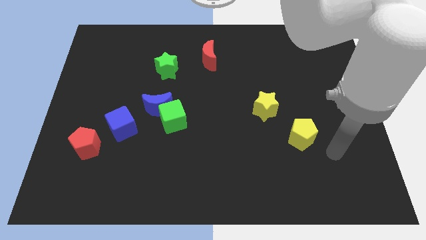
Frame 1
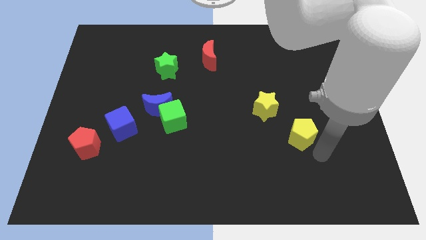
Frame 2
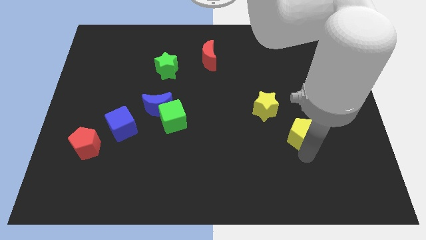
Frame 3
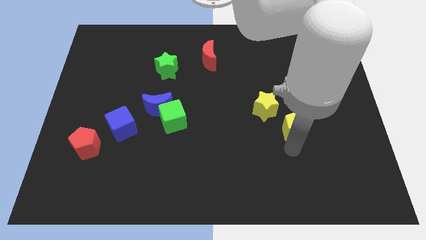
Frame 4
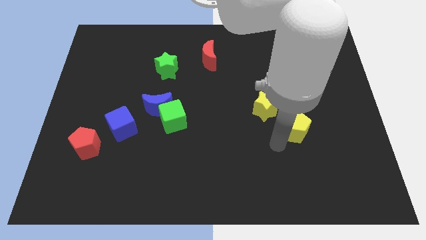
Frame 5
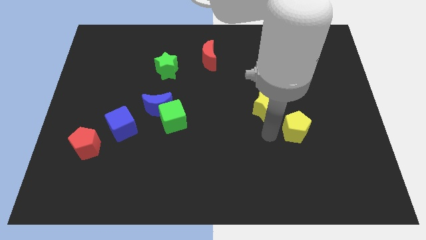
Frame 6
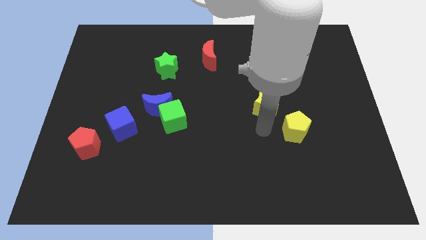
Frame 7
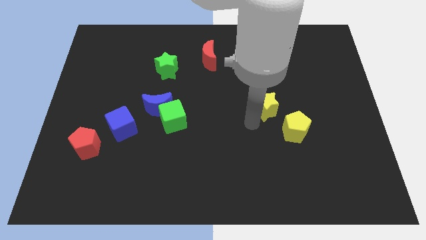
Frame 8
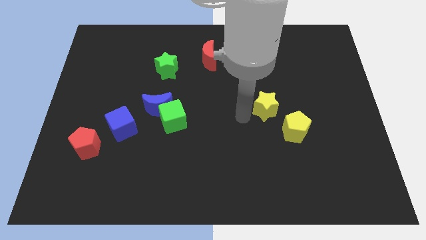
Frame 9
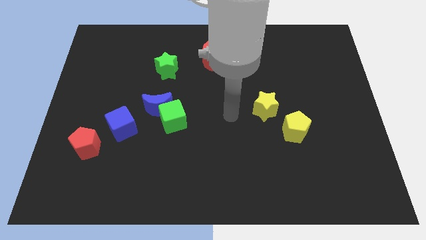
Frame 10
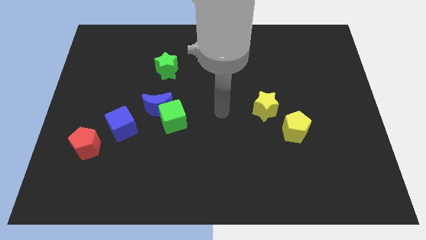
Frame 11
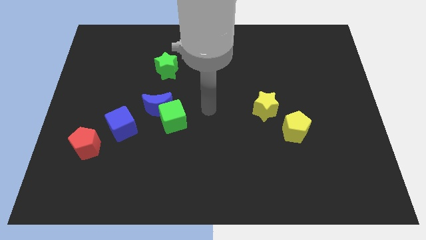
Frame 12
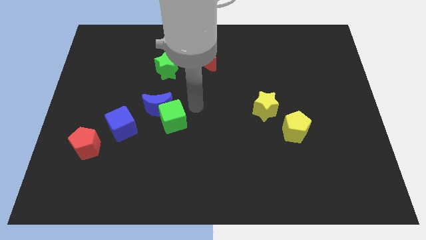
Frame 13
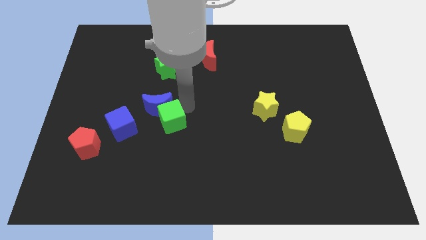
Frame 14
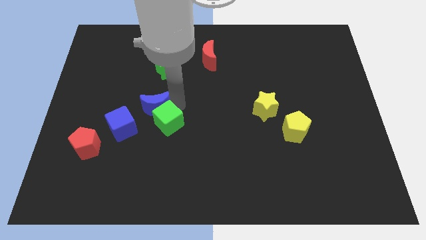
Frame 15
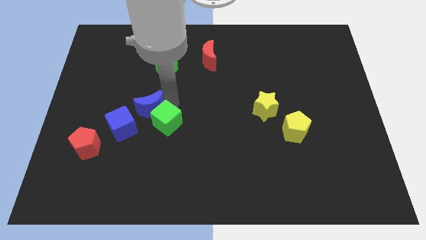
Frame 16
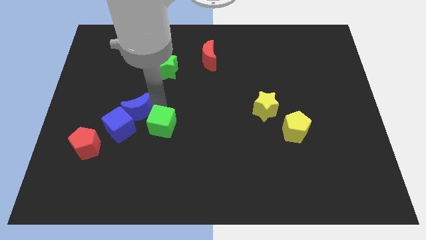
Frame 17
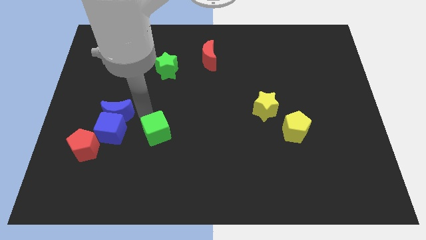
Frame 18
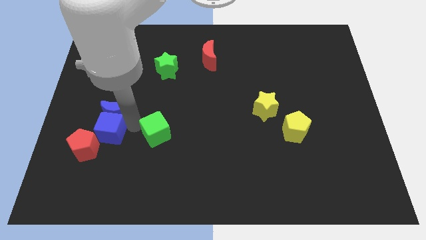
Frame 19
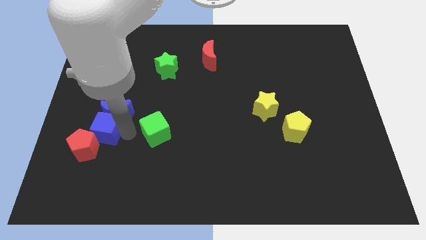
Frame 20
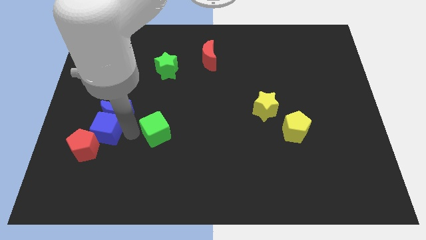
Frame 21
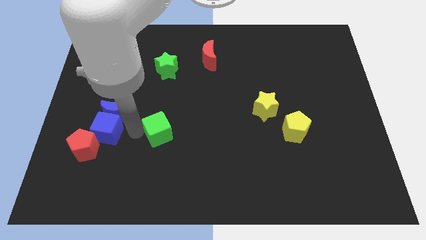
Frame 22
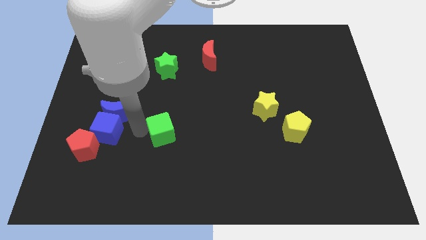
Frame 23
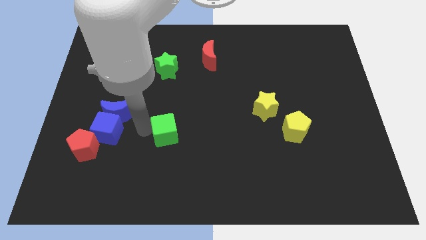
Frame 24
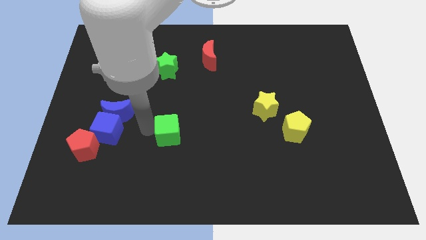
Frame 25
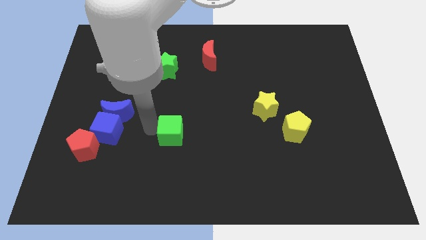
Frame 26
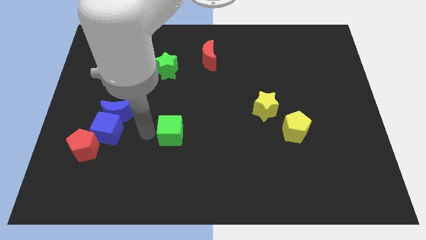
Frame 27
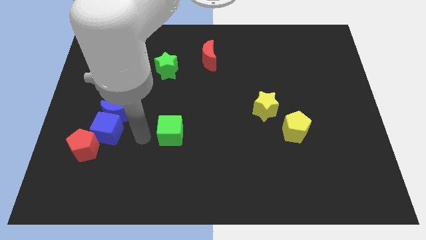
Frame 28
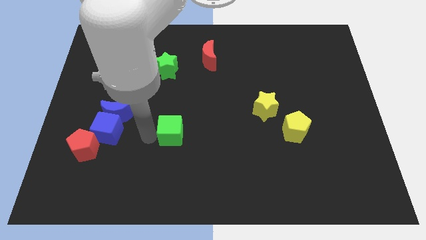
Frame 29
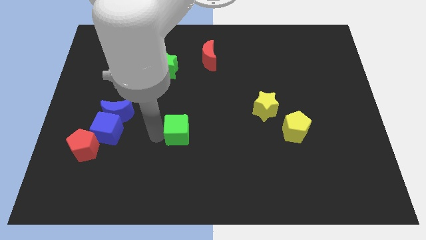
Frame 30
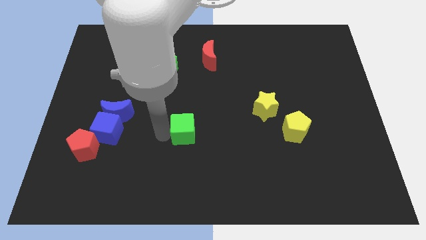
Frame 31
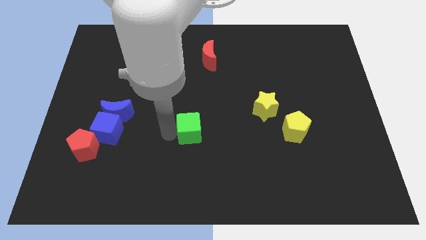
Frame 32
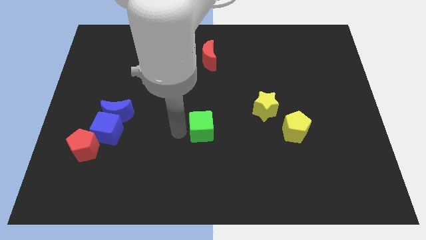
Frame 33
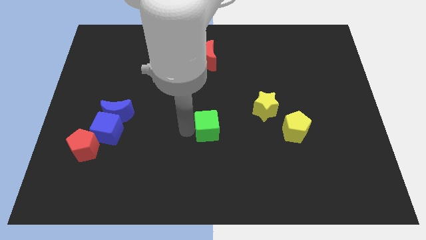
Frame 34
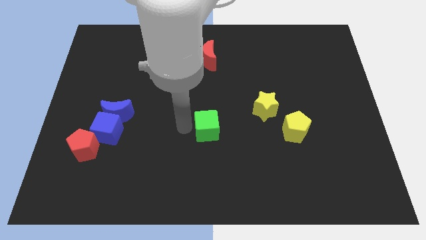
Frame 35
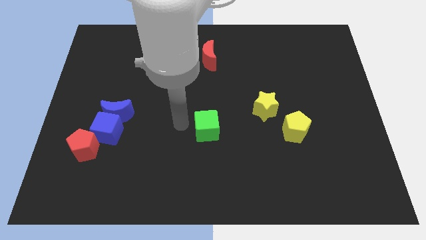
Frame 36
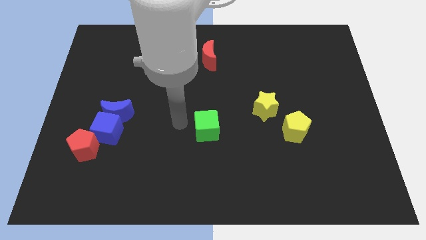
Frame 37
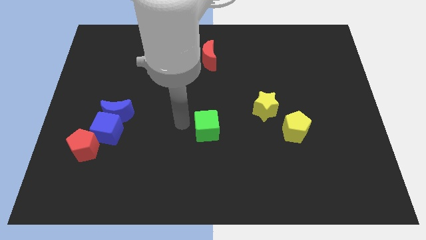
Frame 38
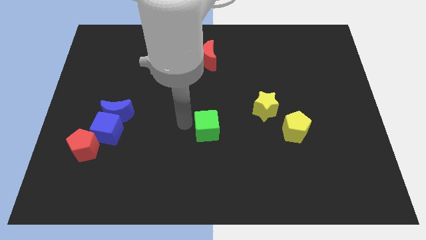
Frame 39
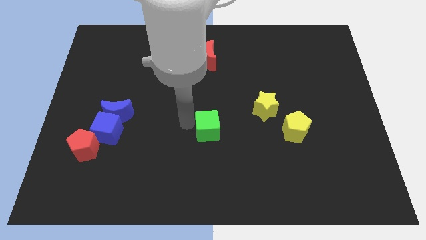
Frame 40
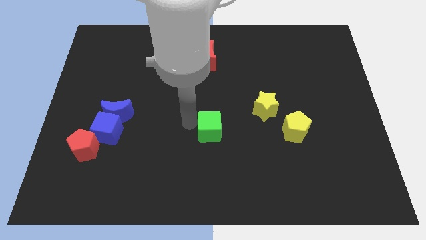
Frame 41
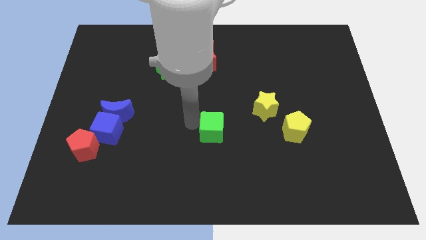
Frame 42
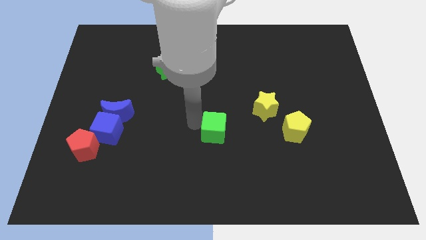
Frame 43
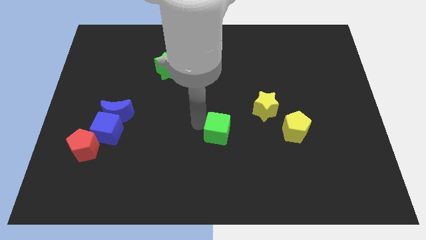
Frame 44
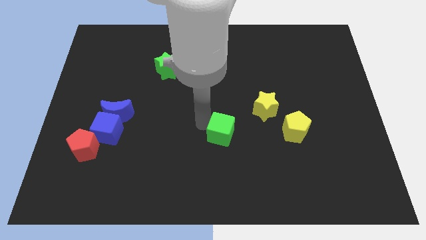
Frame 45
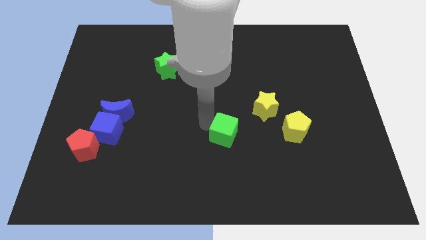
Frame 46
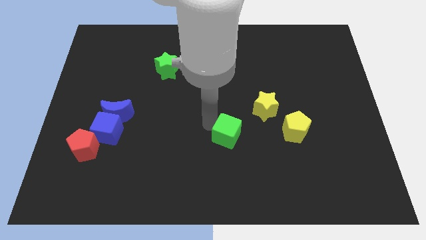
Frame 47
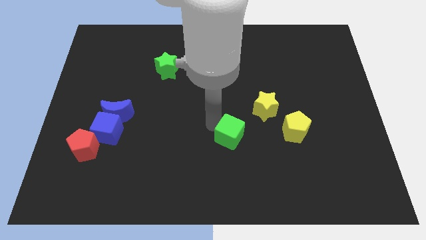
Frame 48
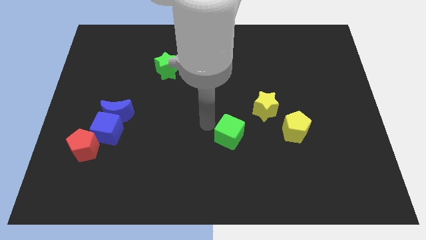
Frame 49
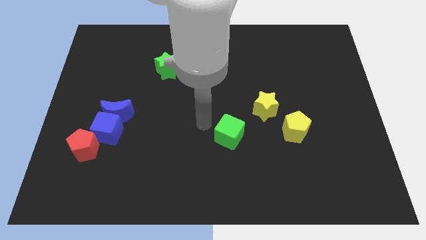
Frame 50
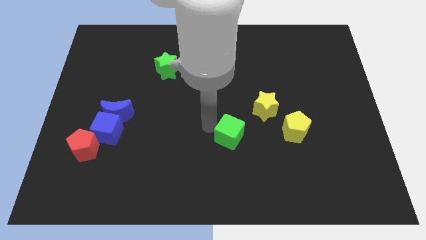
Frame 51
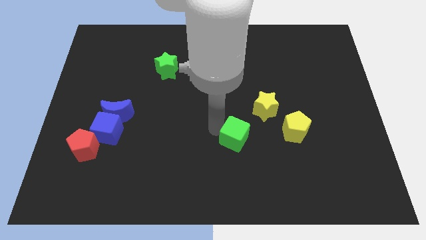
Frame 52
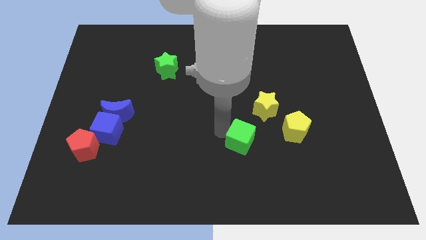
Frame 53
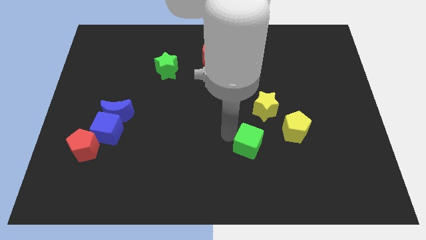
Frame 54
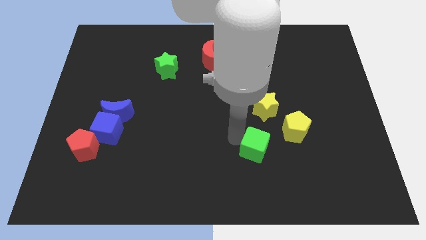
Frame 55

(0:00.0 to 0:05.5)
push the green cube to the bottom left side of the yellow pentagon

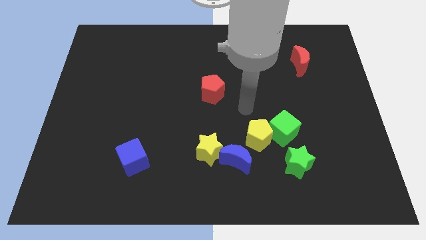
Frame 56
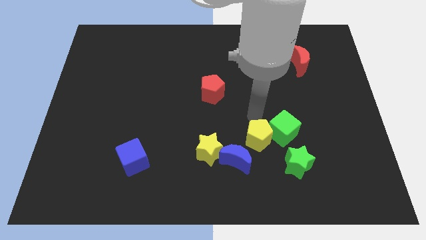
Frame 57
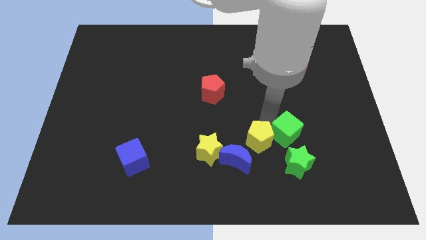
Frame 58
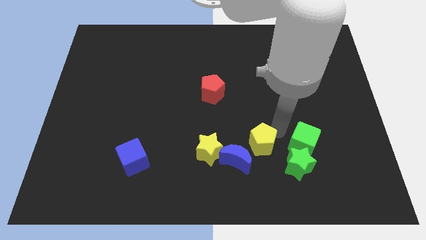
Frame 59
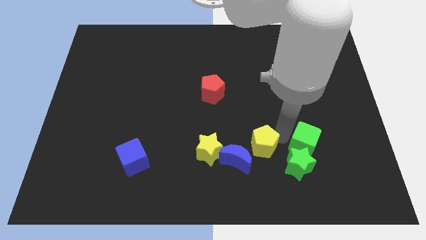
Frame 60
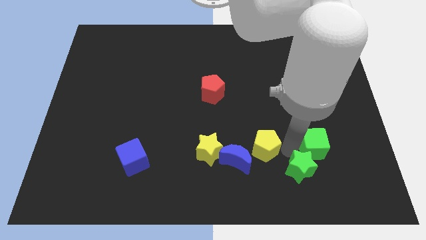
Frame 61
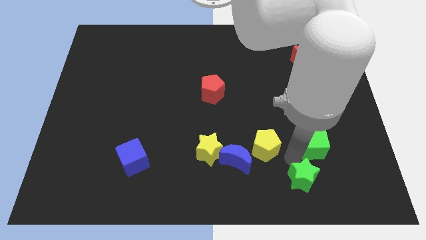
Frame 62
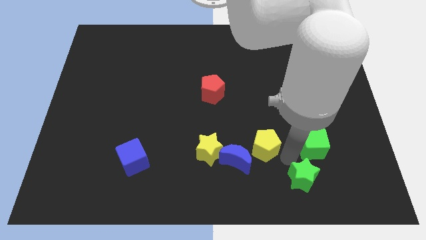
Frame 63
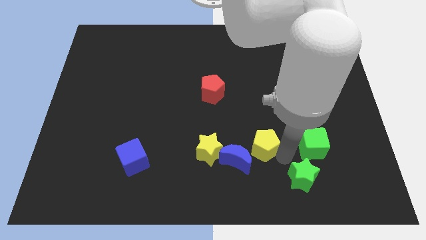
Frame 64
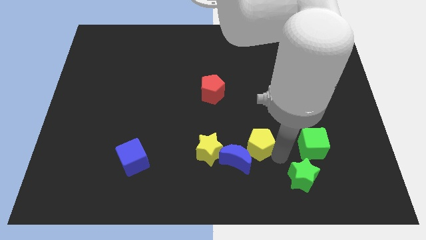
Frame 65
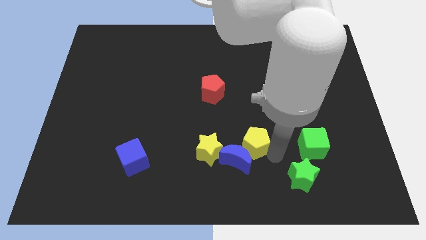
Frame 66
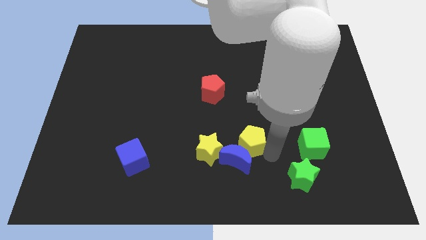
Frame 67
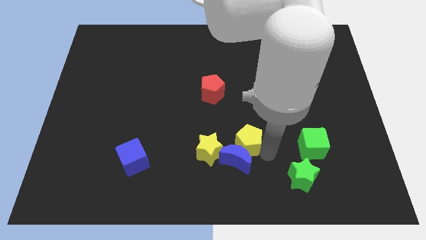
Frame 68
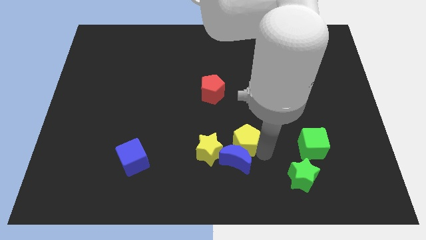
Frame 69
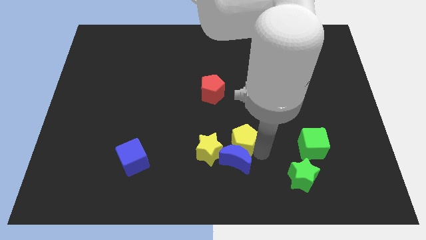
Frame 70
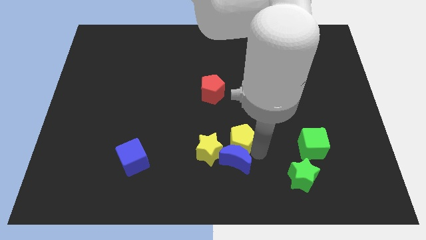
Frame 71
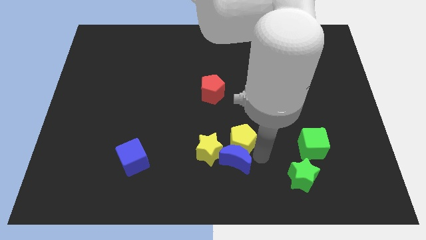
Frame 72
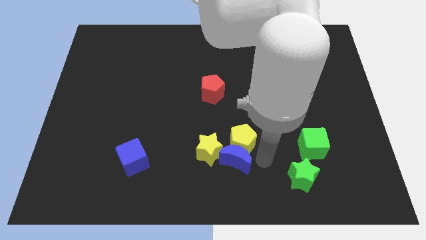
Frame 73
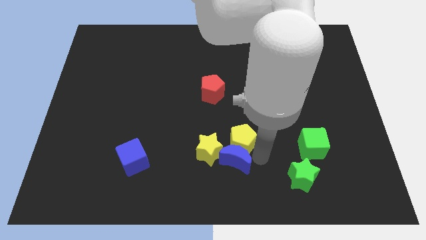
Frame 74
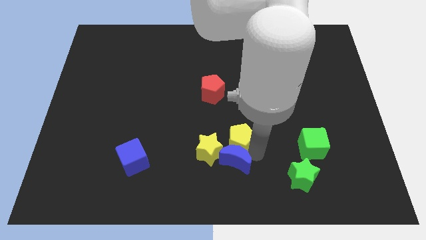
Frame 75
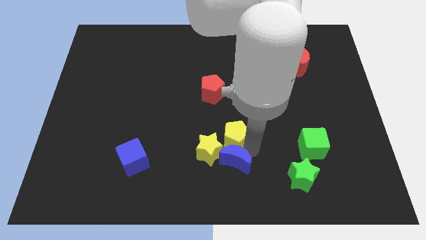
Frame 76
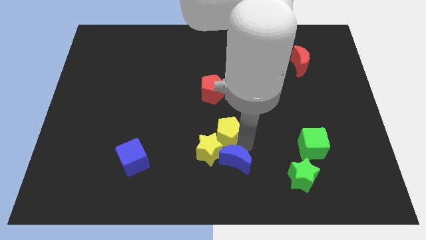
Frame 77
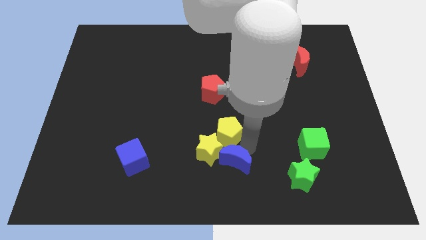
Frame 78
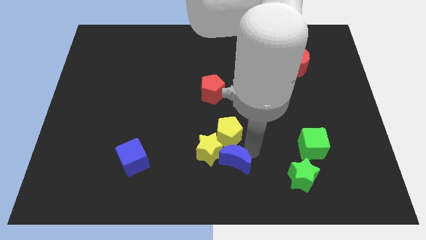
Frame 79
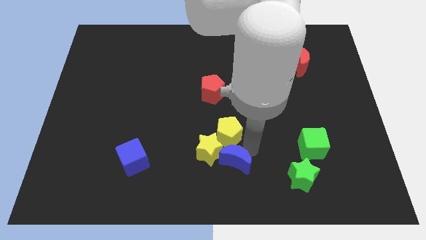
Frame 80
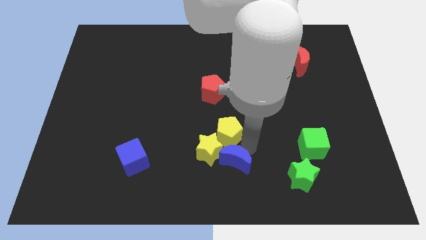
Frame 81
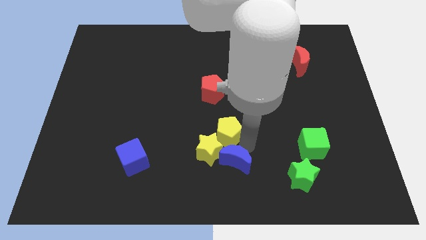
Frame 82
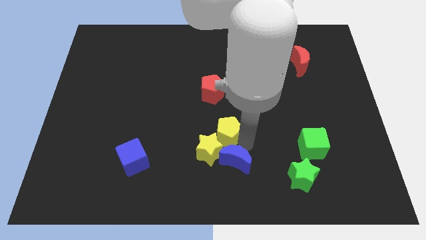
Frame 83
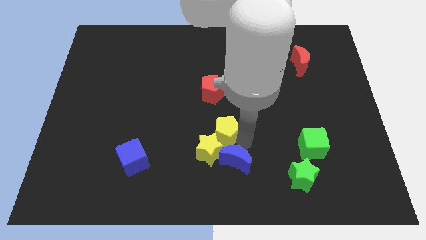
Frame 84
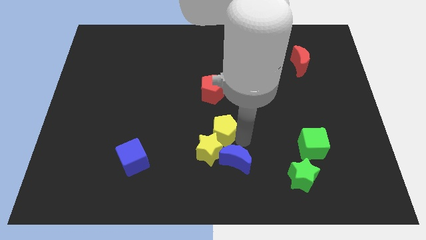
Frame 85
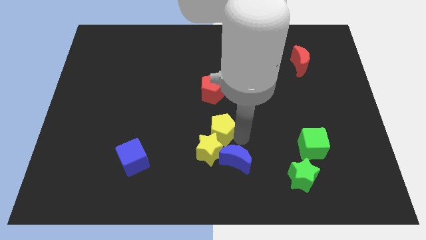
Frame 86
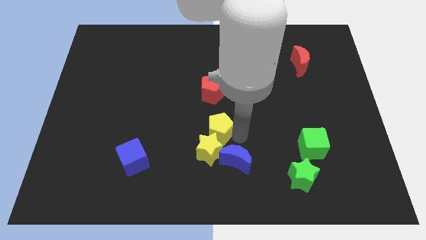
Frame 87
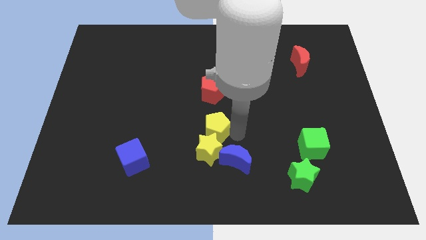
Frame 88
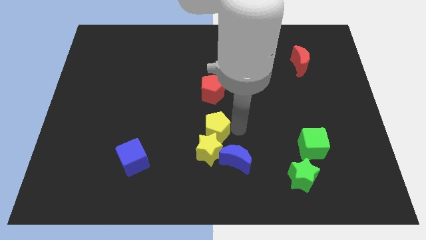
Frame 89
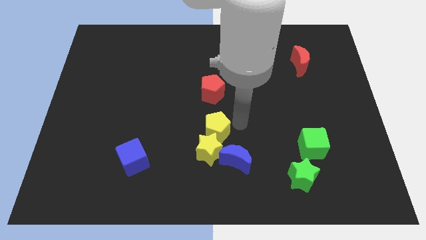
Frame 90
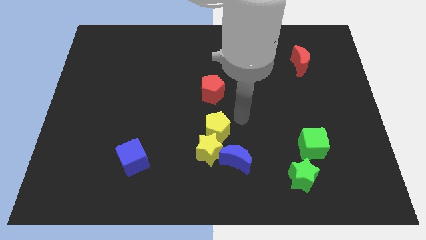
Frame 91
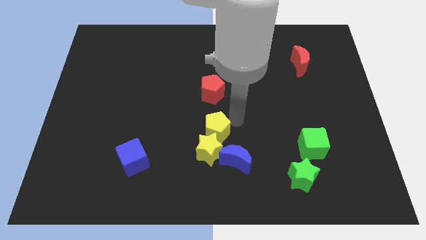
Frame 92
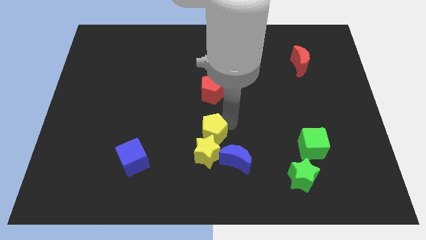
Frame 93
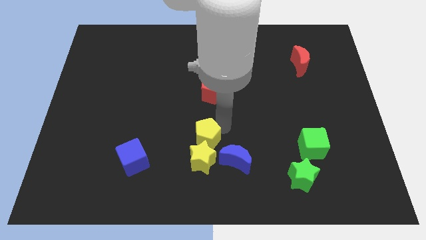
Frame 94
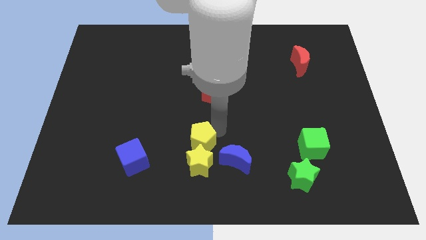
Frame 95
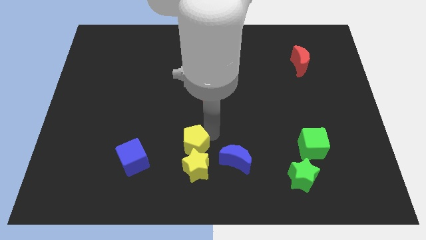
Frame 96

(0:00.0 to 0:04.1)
slide the yellow pentagon to the right side of the blue cube
